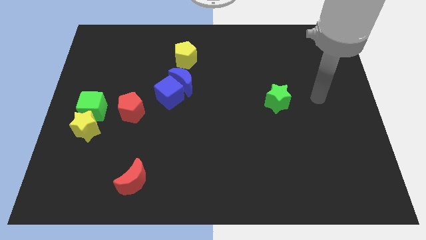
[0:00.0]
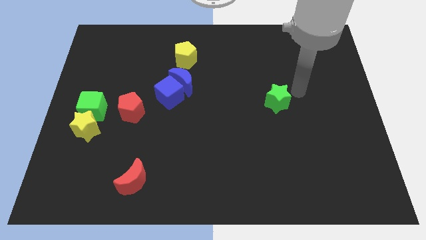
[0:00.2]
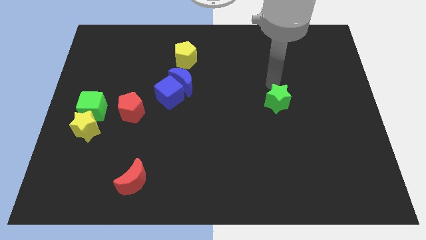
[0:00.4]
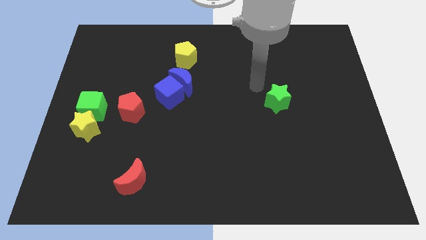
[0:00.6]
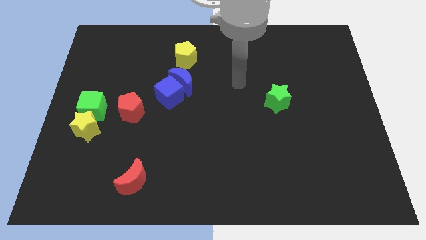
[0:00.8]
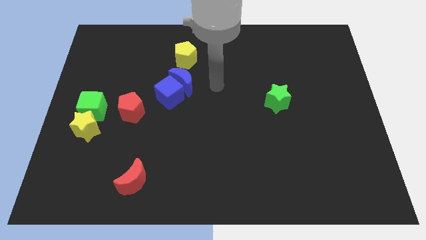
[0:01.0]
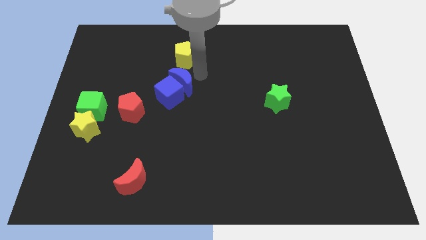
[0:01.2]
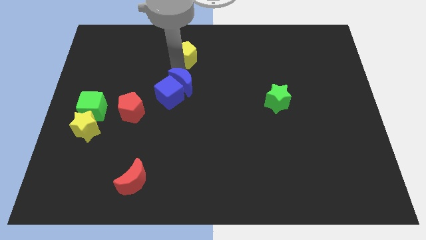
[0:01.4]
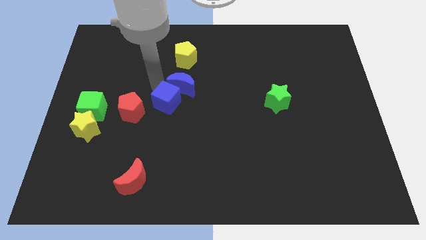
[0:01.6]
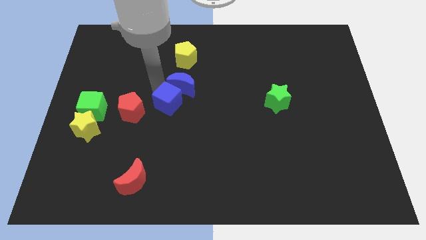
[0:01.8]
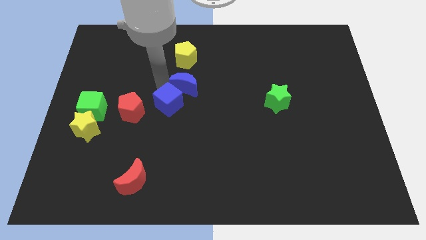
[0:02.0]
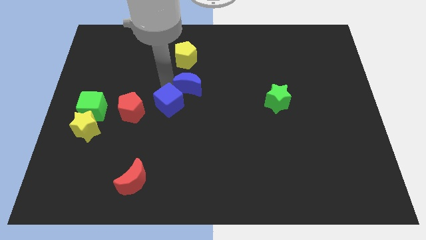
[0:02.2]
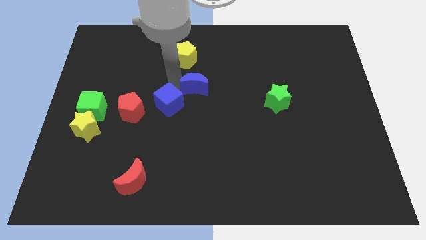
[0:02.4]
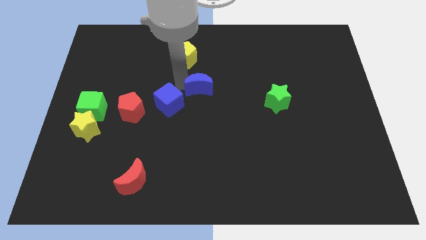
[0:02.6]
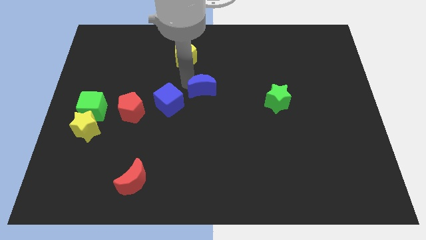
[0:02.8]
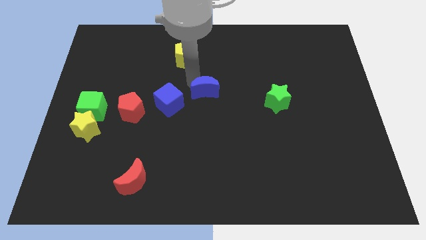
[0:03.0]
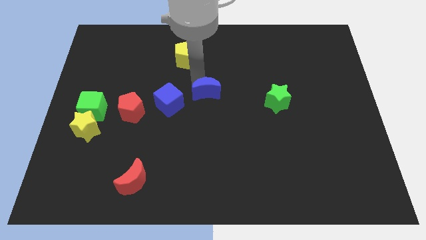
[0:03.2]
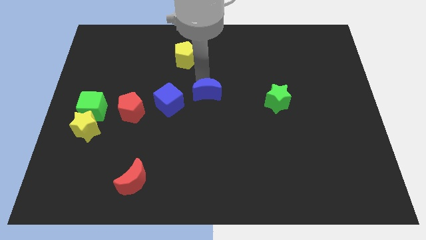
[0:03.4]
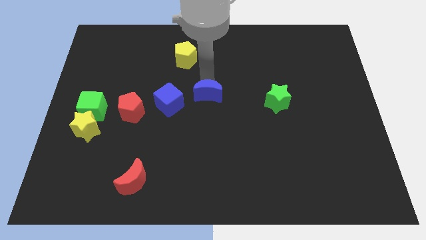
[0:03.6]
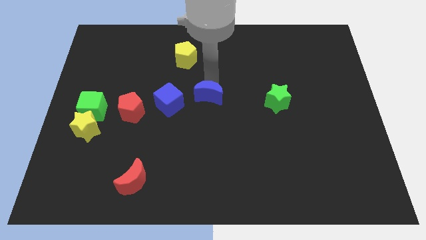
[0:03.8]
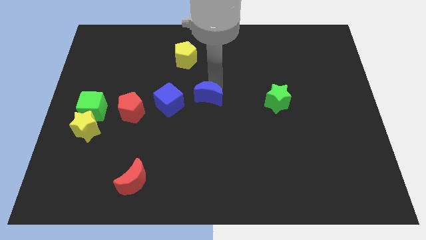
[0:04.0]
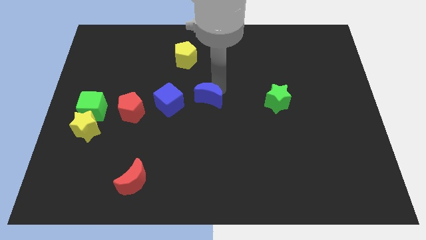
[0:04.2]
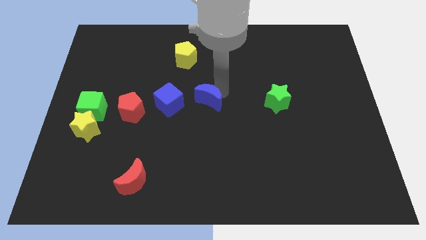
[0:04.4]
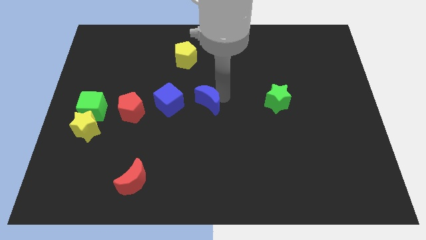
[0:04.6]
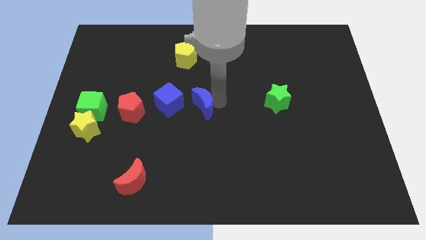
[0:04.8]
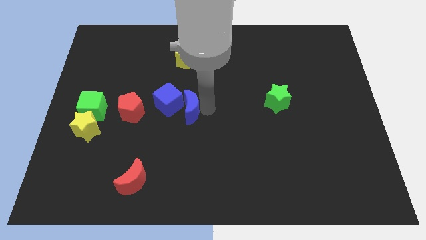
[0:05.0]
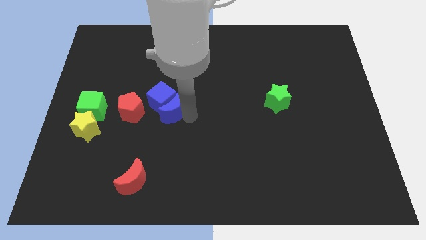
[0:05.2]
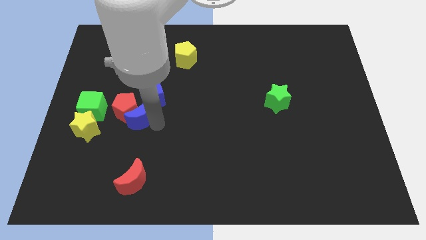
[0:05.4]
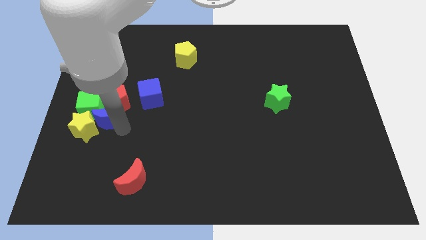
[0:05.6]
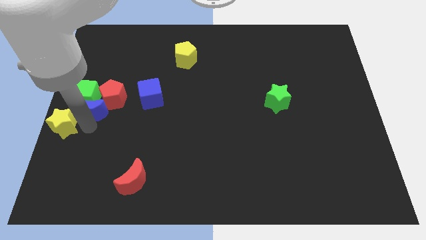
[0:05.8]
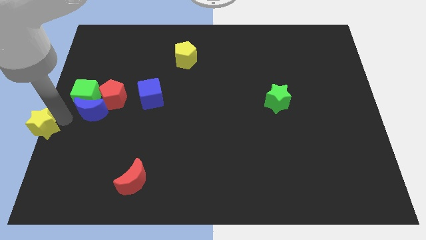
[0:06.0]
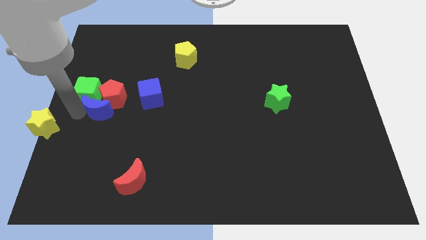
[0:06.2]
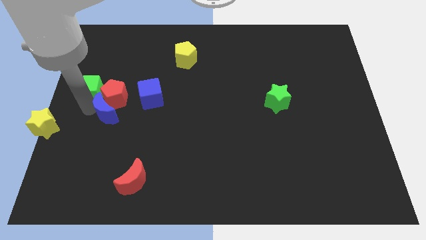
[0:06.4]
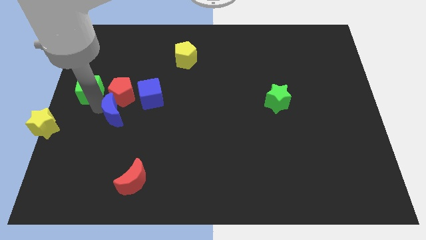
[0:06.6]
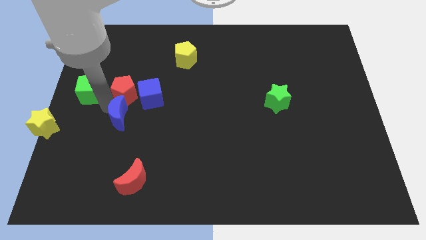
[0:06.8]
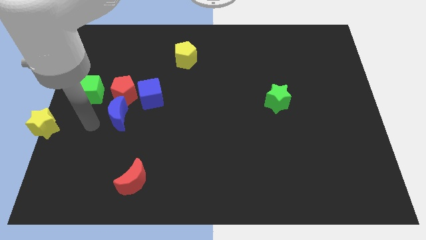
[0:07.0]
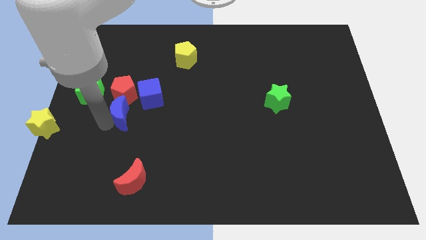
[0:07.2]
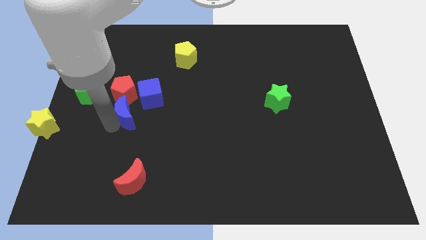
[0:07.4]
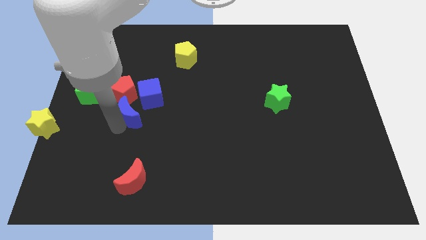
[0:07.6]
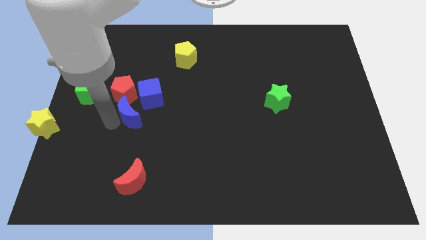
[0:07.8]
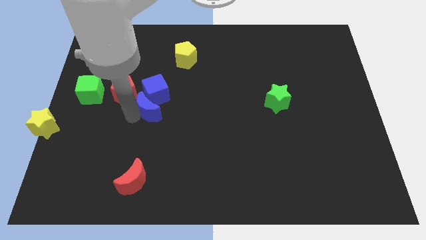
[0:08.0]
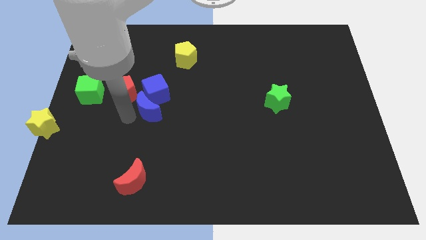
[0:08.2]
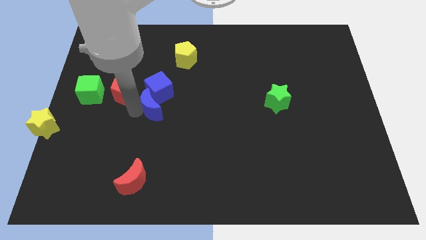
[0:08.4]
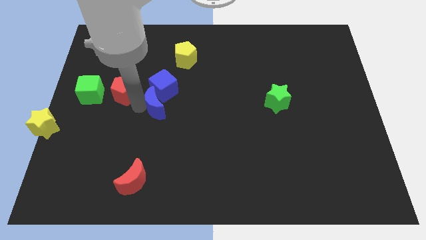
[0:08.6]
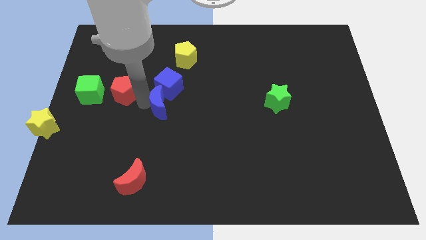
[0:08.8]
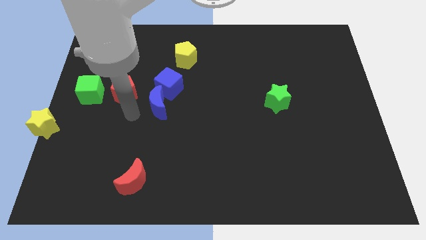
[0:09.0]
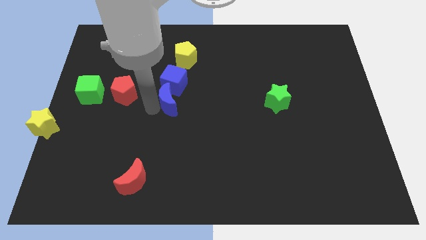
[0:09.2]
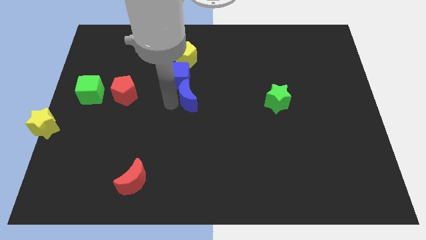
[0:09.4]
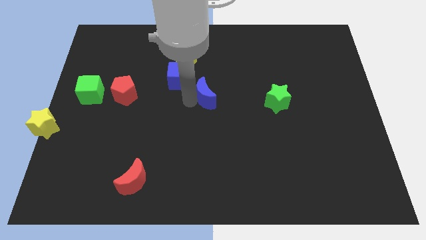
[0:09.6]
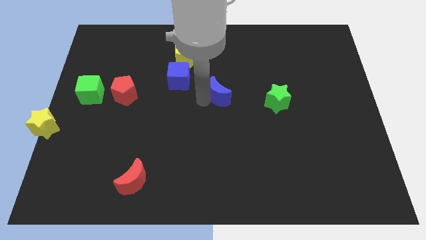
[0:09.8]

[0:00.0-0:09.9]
slightly push the blue moon right

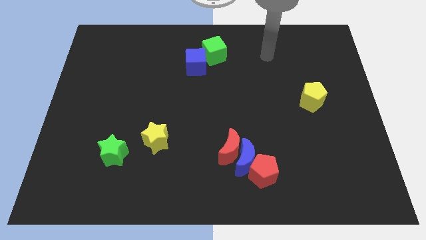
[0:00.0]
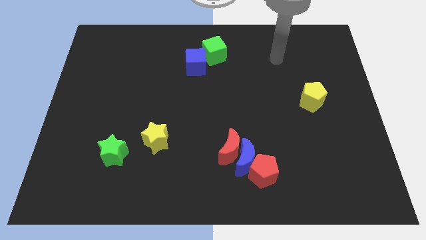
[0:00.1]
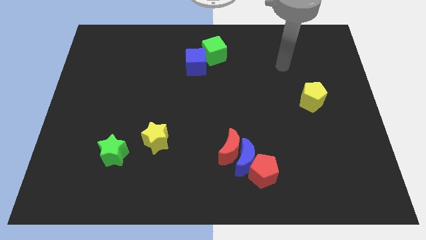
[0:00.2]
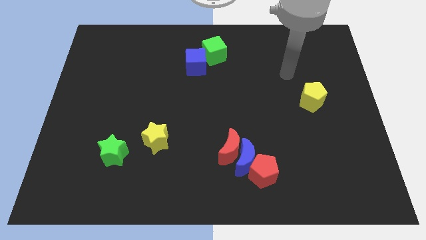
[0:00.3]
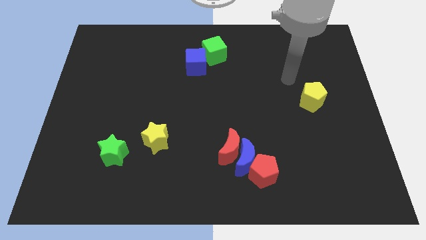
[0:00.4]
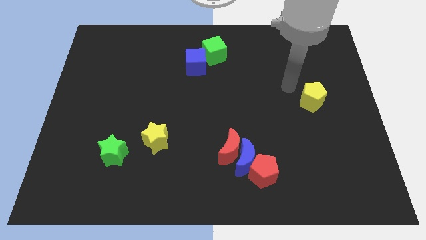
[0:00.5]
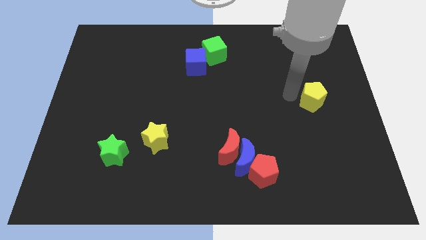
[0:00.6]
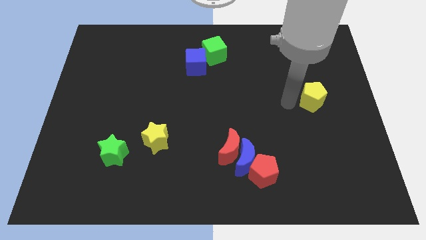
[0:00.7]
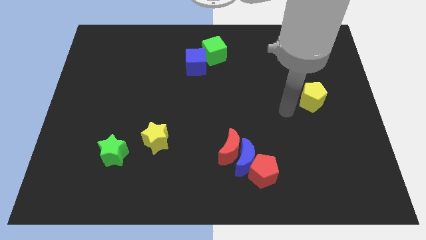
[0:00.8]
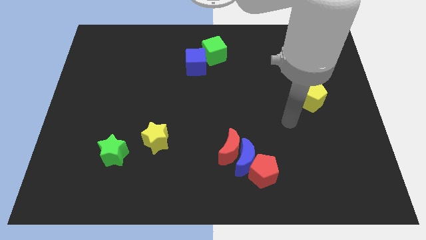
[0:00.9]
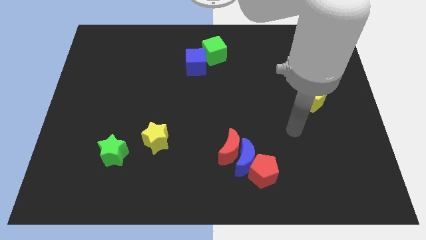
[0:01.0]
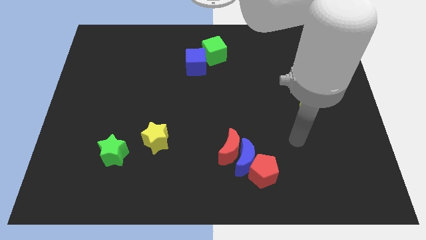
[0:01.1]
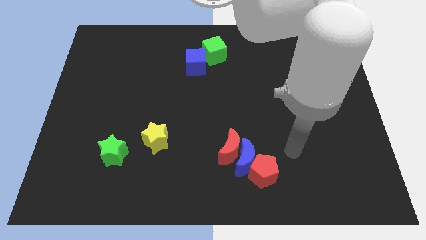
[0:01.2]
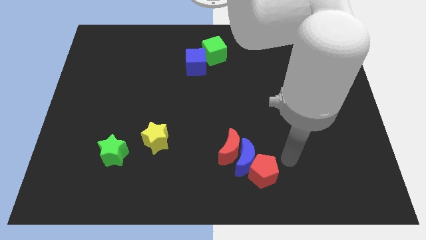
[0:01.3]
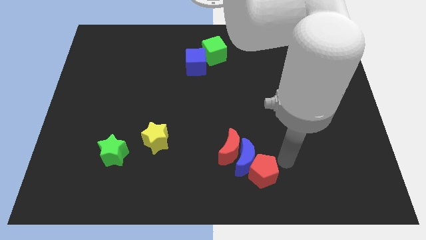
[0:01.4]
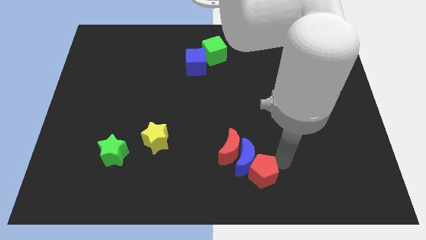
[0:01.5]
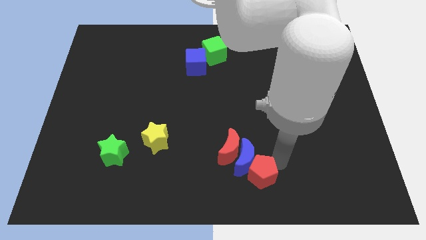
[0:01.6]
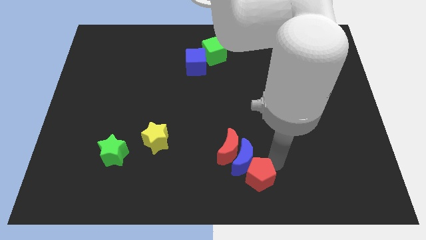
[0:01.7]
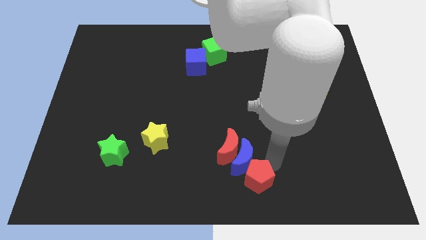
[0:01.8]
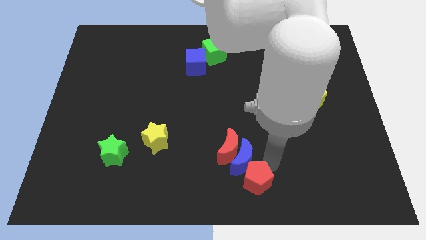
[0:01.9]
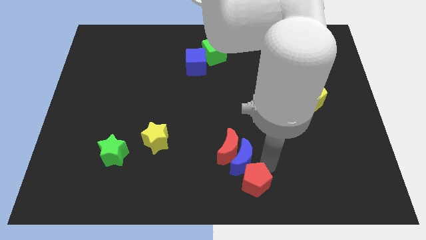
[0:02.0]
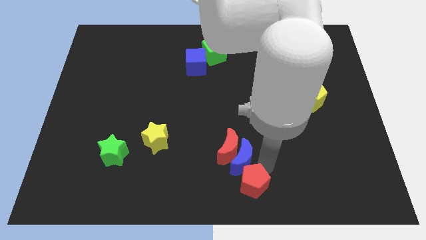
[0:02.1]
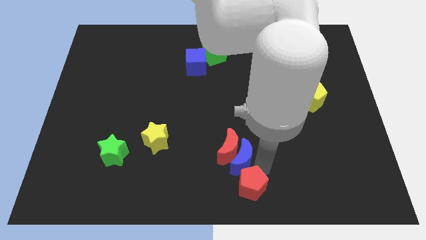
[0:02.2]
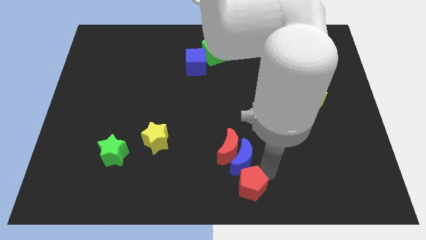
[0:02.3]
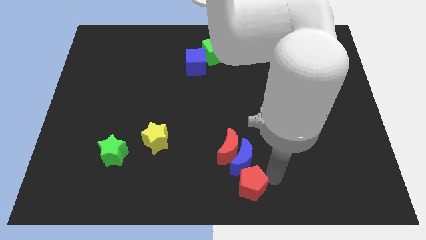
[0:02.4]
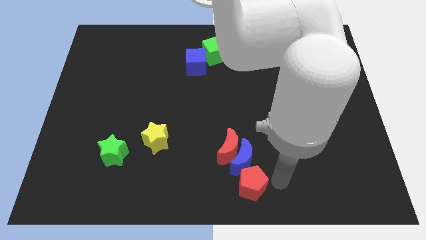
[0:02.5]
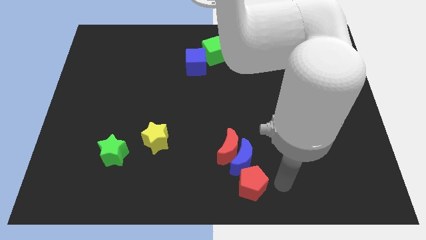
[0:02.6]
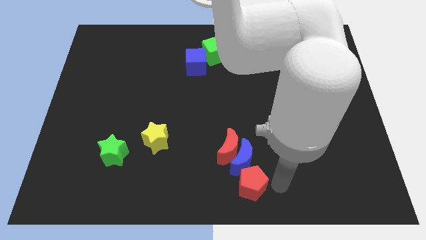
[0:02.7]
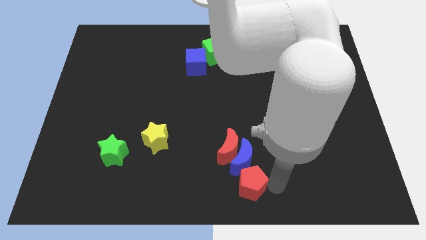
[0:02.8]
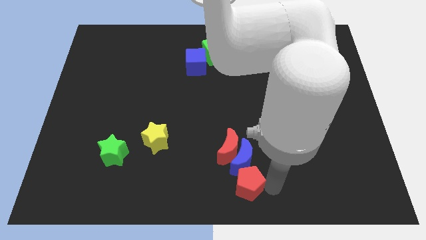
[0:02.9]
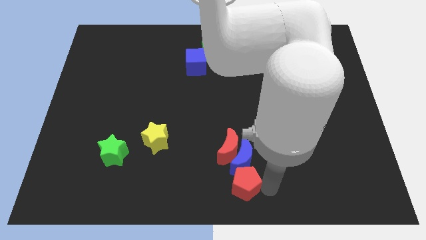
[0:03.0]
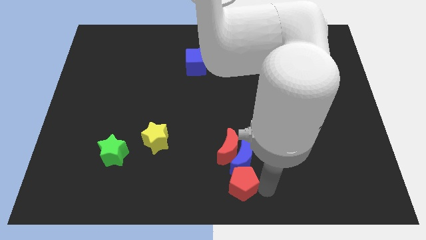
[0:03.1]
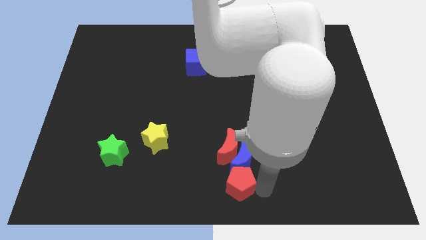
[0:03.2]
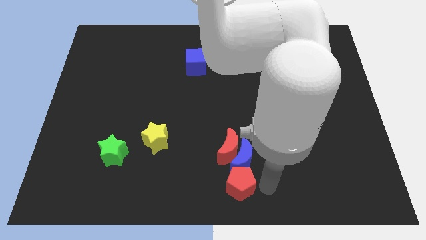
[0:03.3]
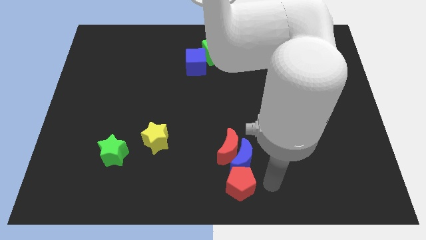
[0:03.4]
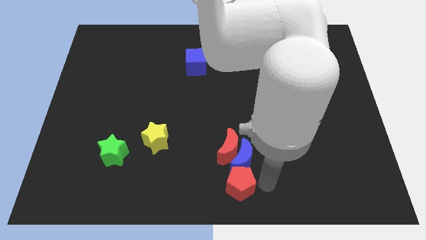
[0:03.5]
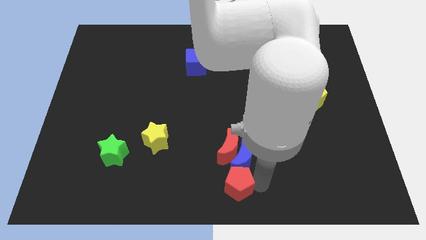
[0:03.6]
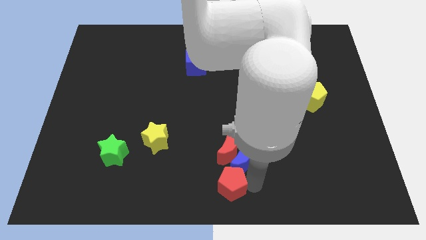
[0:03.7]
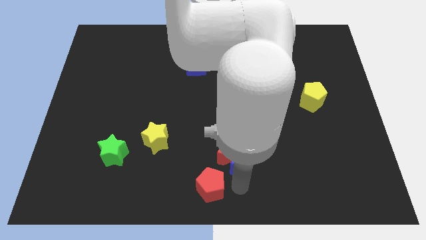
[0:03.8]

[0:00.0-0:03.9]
move the red pentagon left a little
